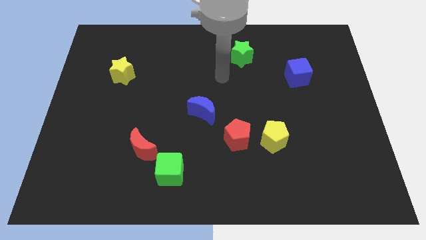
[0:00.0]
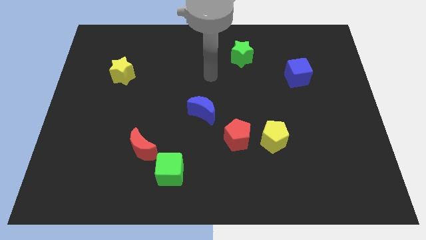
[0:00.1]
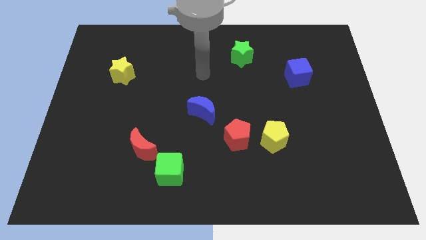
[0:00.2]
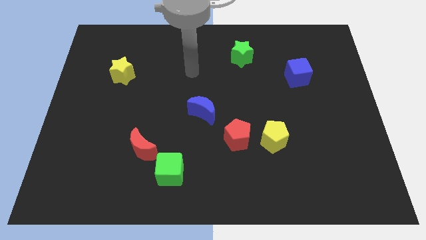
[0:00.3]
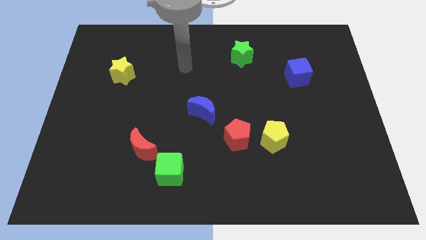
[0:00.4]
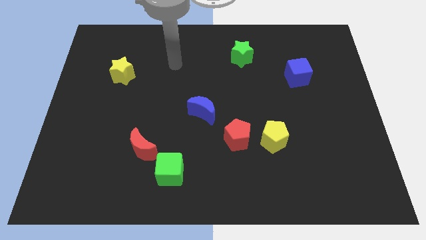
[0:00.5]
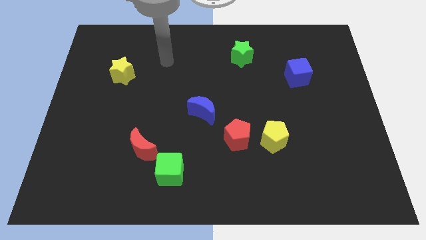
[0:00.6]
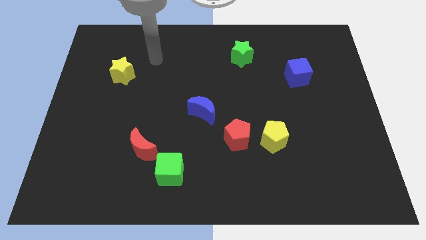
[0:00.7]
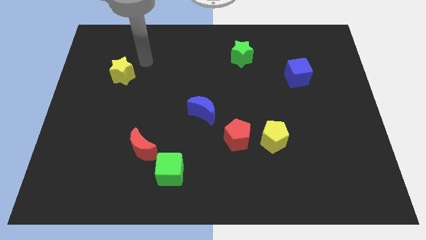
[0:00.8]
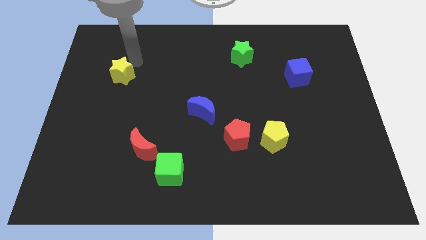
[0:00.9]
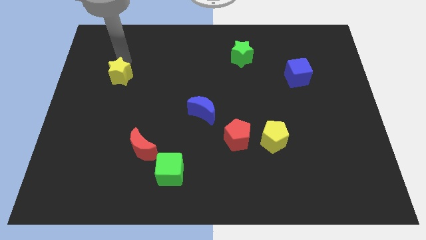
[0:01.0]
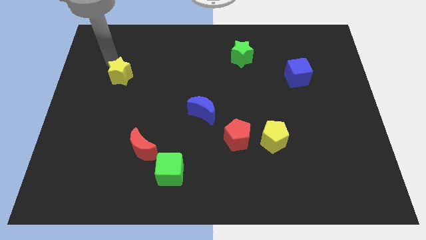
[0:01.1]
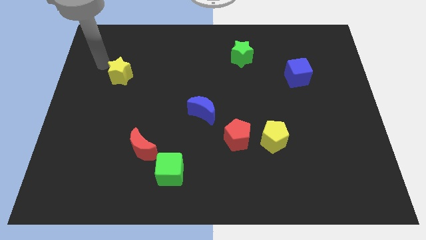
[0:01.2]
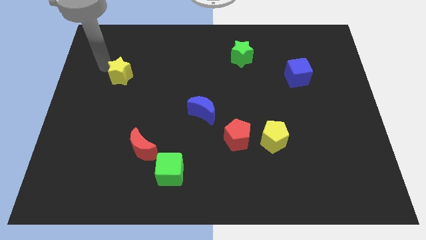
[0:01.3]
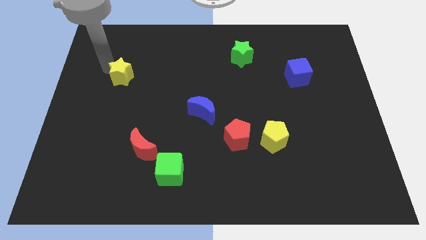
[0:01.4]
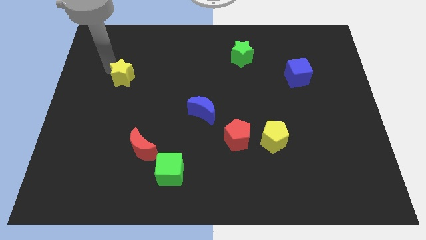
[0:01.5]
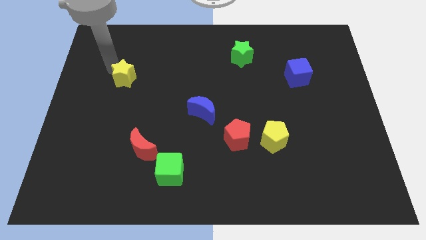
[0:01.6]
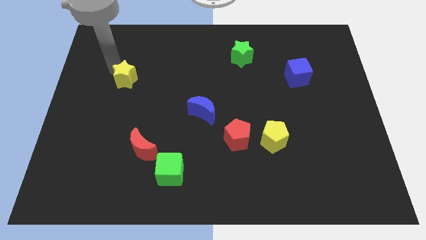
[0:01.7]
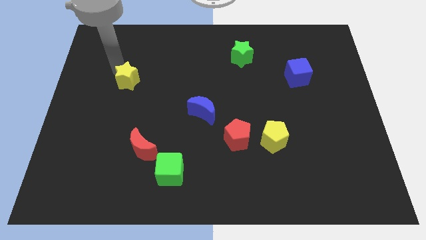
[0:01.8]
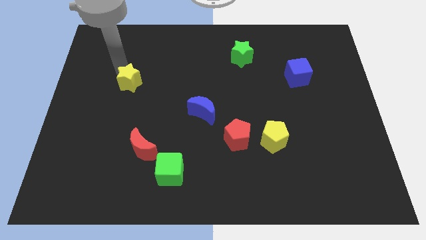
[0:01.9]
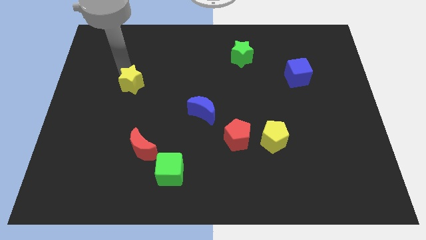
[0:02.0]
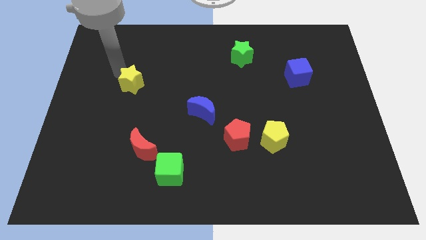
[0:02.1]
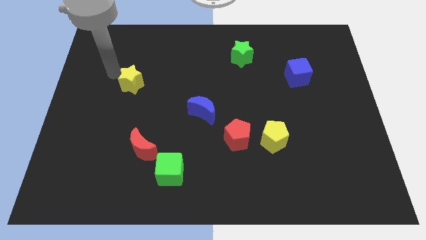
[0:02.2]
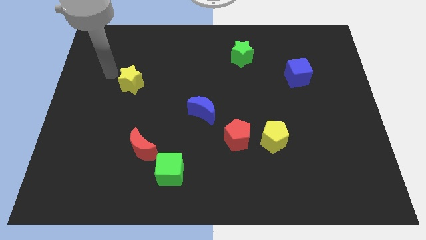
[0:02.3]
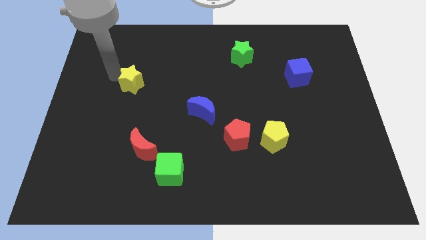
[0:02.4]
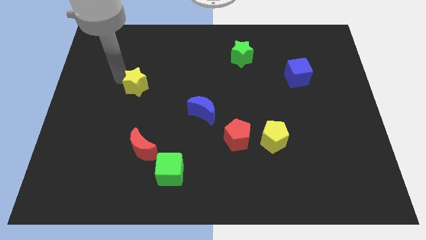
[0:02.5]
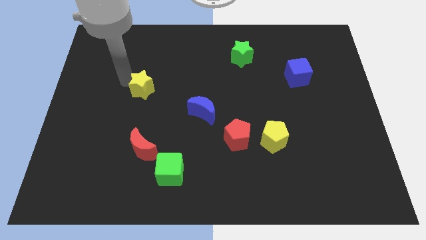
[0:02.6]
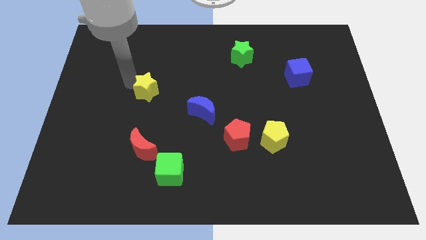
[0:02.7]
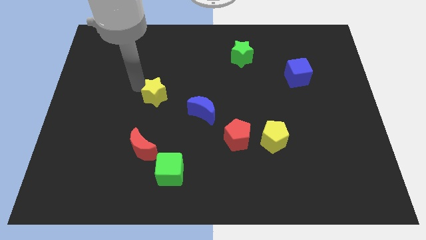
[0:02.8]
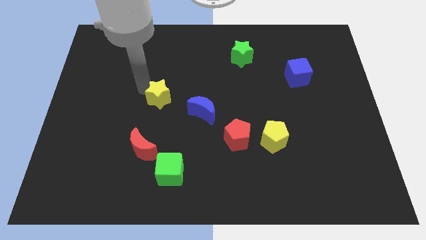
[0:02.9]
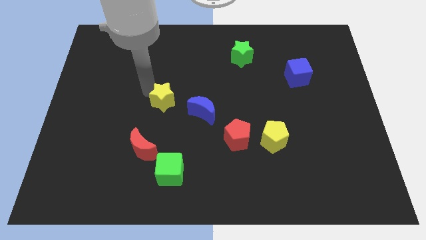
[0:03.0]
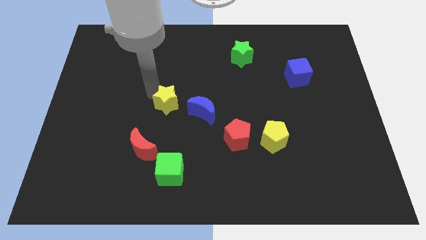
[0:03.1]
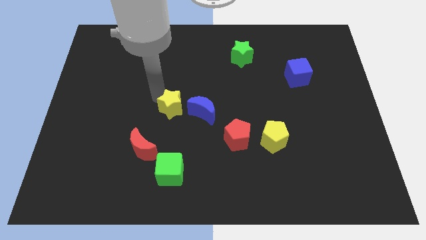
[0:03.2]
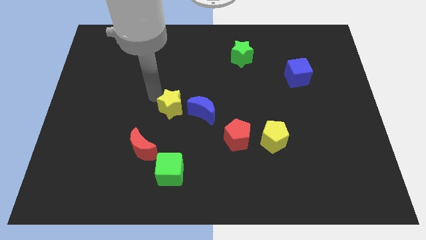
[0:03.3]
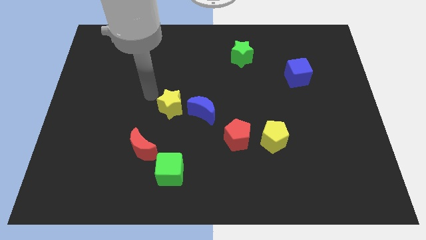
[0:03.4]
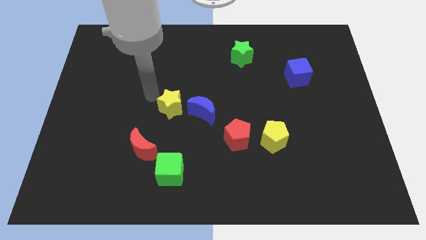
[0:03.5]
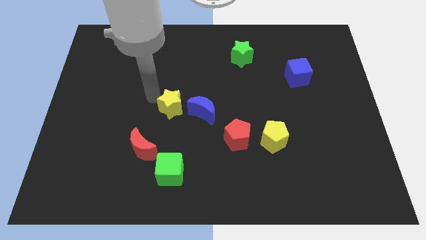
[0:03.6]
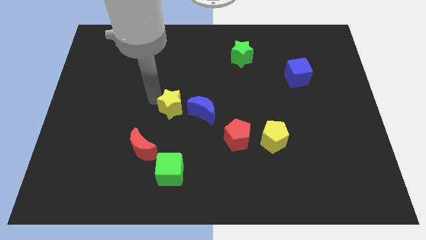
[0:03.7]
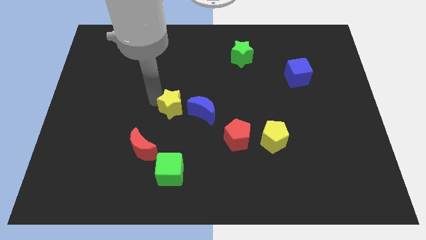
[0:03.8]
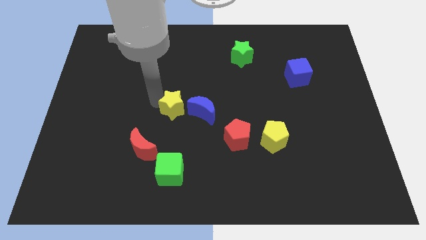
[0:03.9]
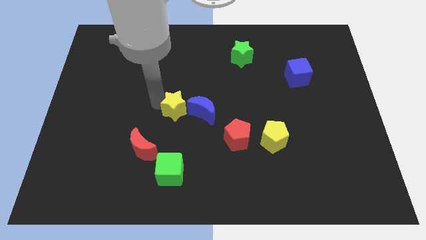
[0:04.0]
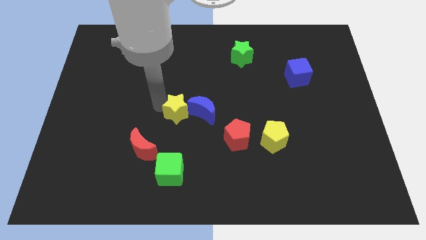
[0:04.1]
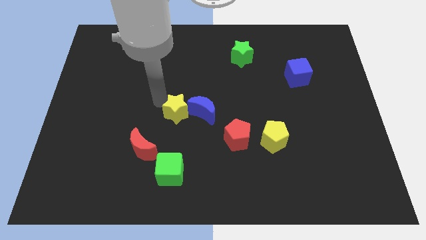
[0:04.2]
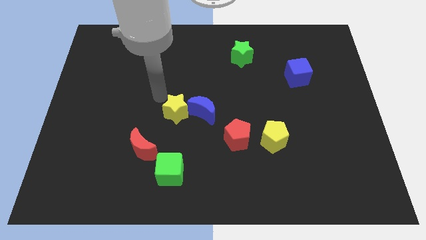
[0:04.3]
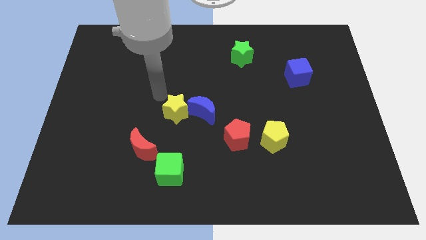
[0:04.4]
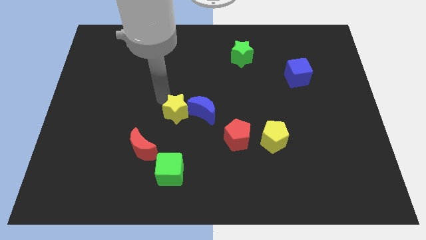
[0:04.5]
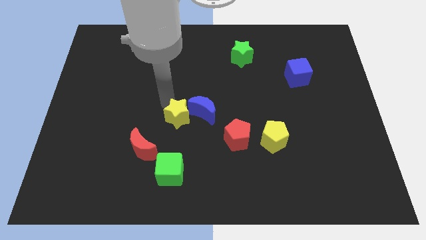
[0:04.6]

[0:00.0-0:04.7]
slide the yellow star downwards and to the right diagonally

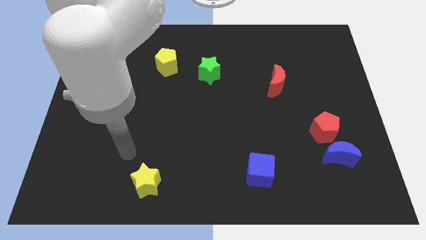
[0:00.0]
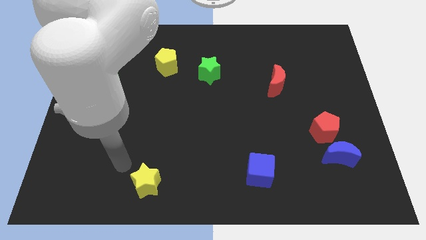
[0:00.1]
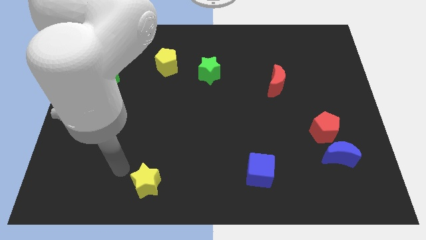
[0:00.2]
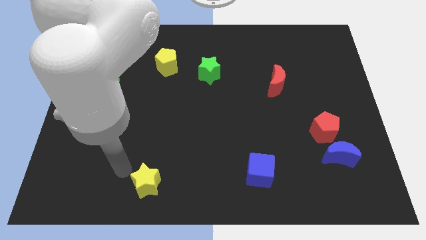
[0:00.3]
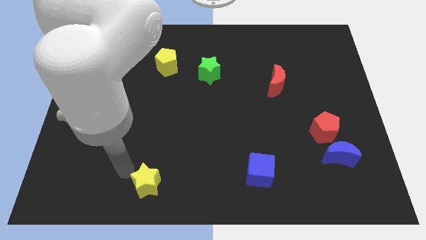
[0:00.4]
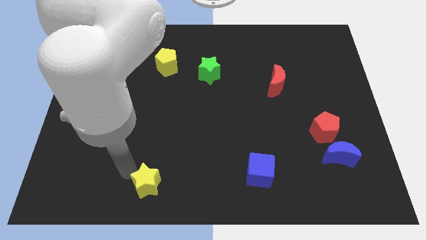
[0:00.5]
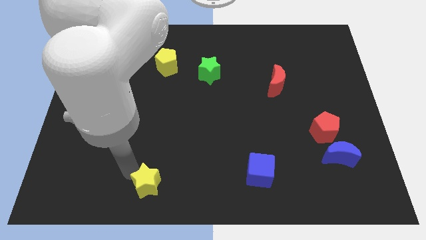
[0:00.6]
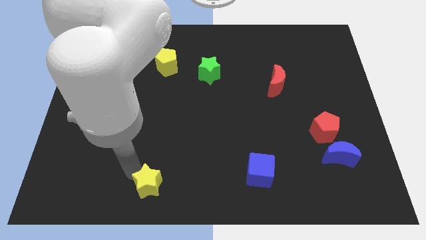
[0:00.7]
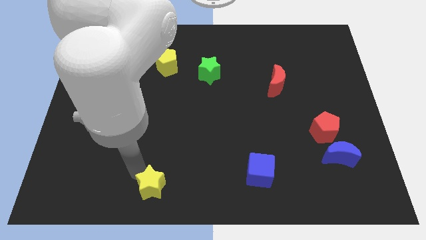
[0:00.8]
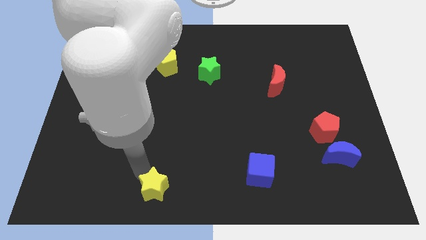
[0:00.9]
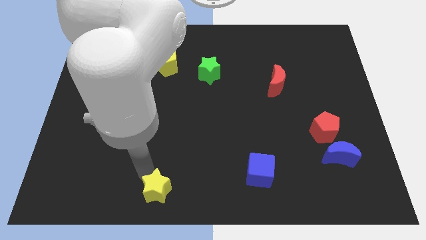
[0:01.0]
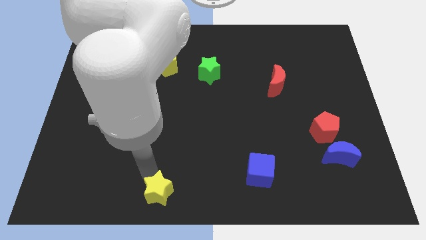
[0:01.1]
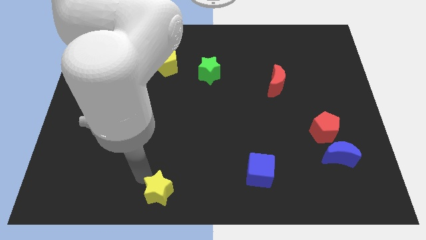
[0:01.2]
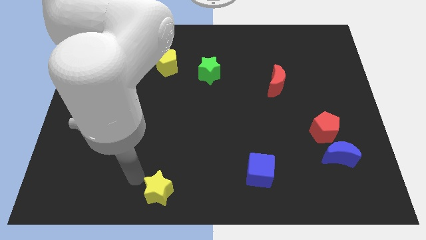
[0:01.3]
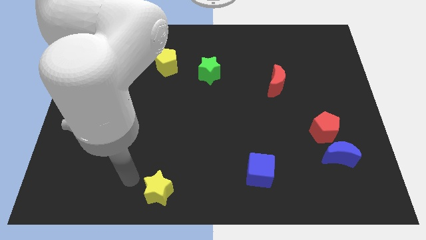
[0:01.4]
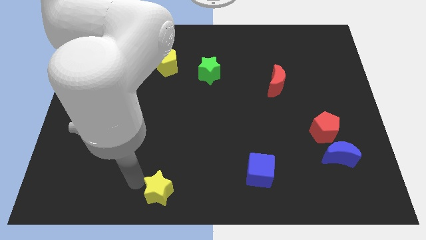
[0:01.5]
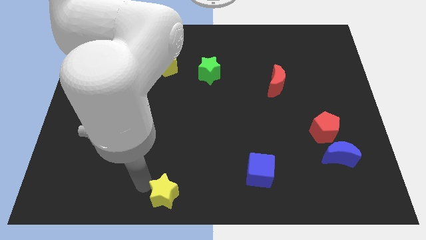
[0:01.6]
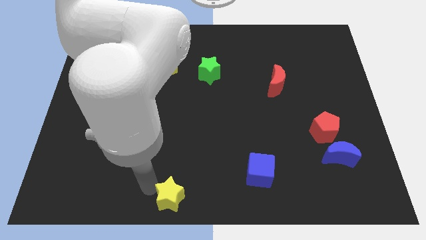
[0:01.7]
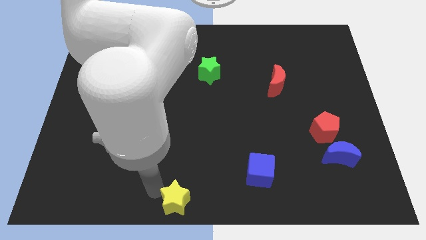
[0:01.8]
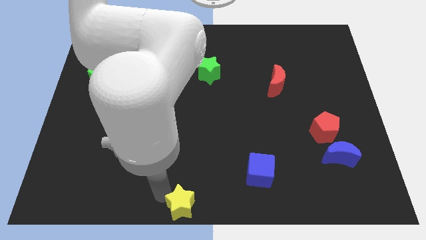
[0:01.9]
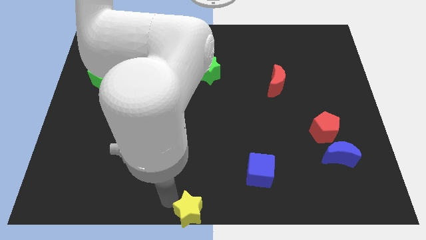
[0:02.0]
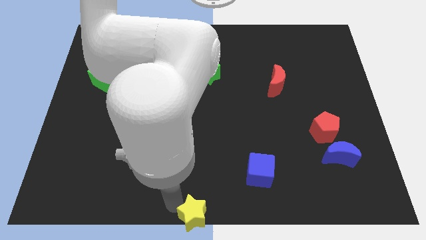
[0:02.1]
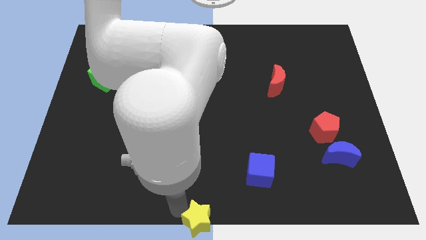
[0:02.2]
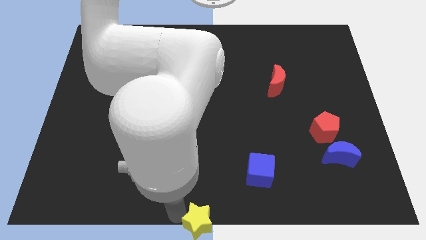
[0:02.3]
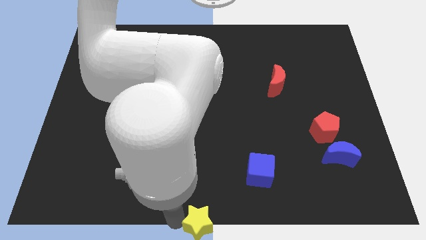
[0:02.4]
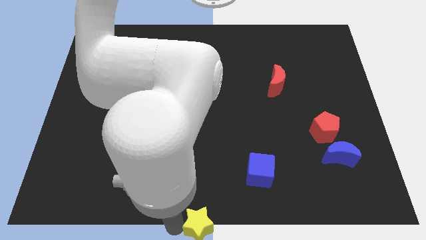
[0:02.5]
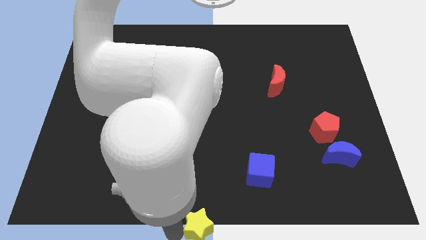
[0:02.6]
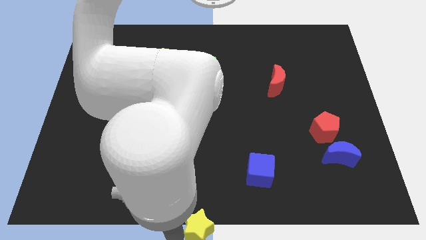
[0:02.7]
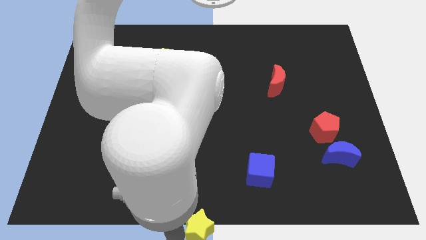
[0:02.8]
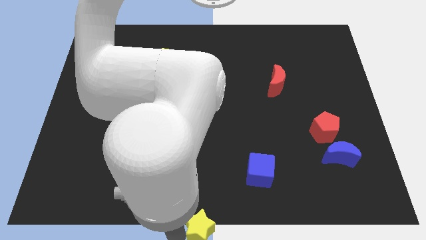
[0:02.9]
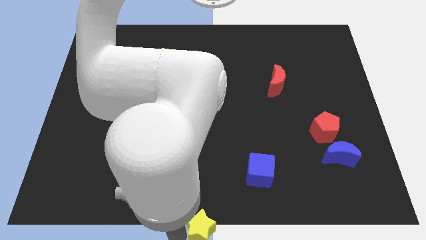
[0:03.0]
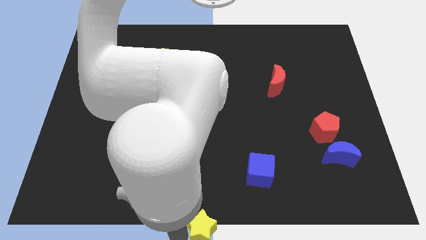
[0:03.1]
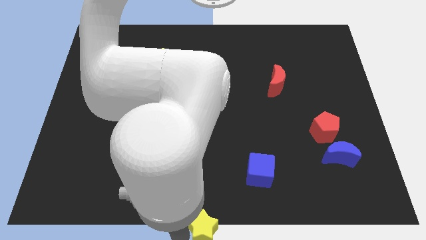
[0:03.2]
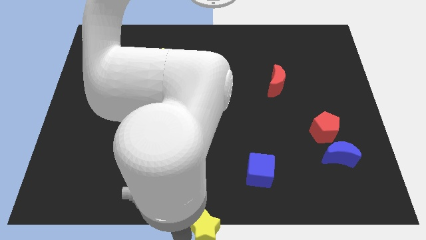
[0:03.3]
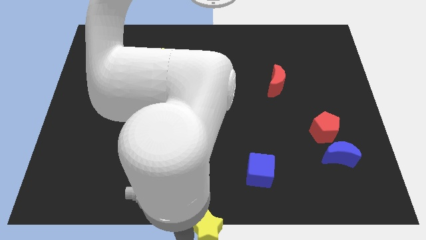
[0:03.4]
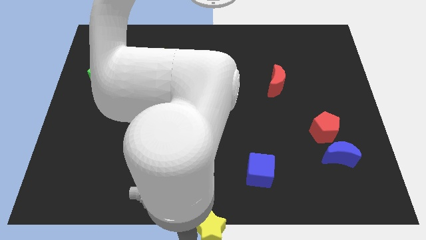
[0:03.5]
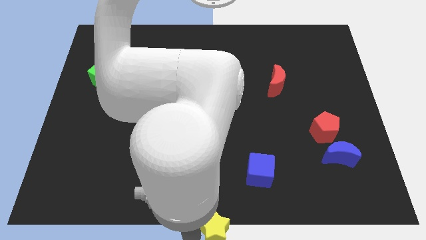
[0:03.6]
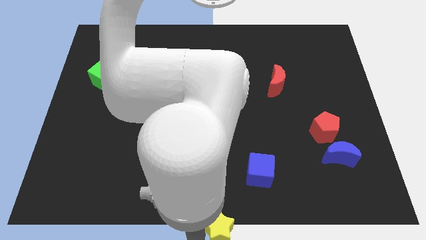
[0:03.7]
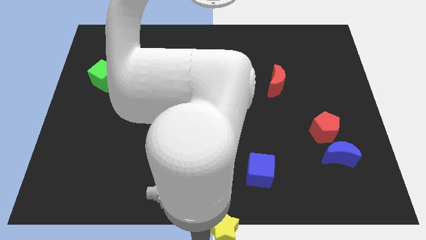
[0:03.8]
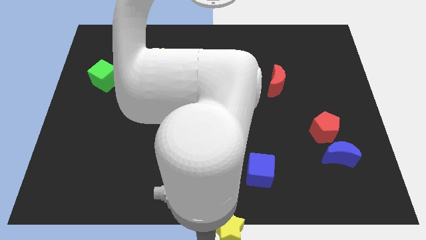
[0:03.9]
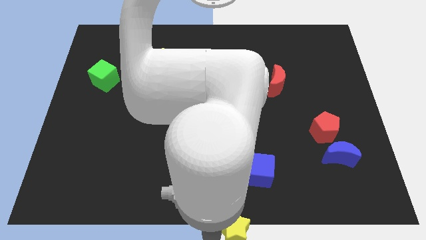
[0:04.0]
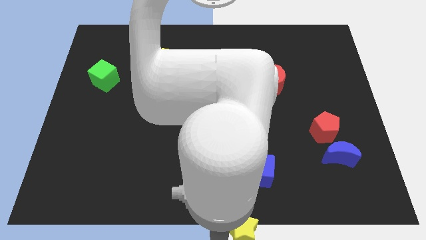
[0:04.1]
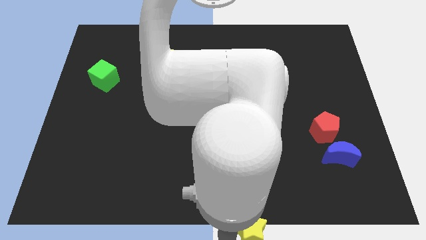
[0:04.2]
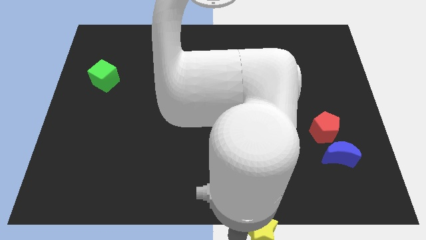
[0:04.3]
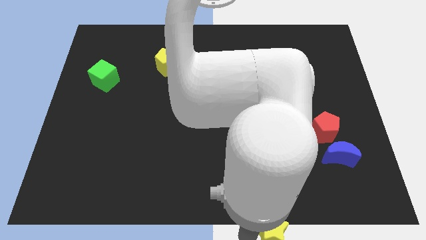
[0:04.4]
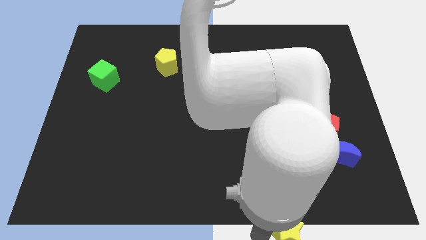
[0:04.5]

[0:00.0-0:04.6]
move the yellow star to the right
